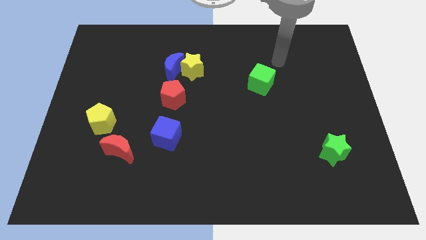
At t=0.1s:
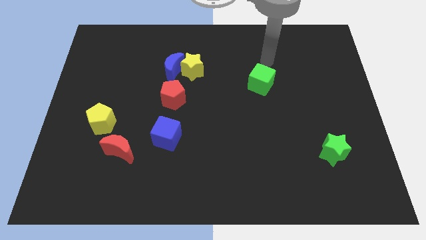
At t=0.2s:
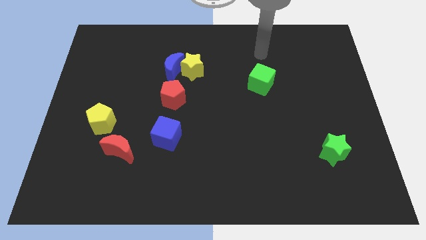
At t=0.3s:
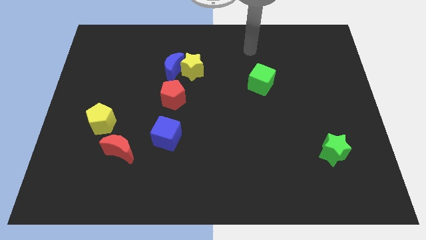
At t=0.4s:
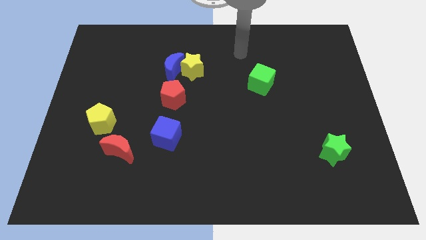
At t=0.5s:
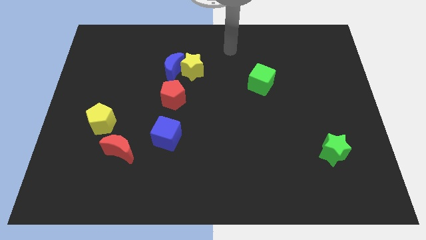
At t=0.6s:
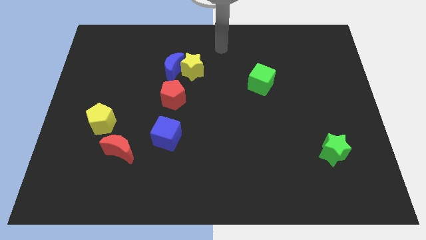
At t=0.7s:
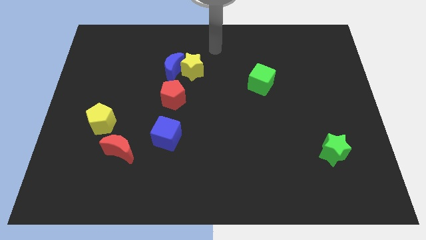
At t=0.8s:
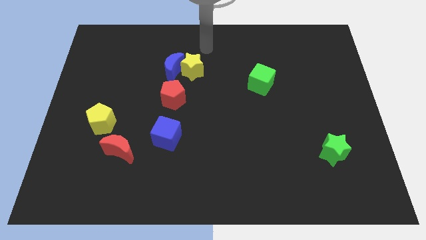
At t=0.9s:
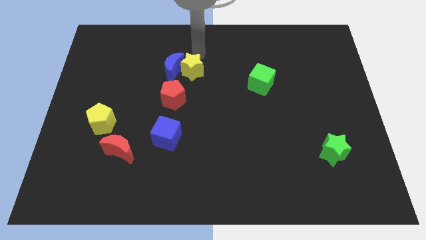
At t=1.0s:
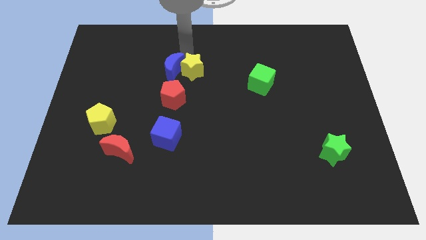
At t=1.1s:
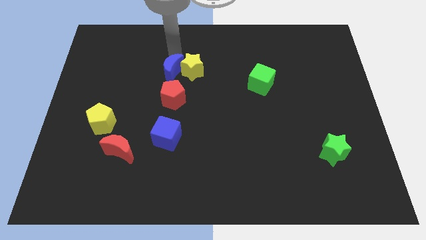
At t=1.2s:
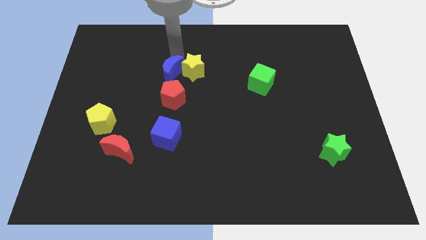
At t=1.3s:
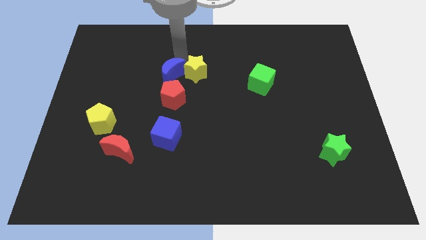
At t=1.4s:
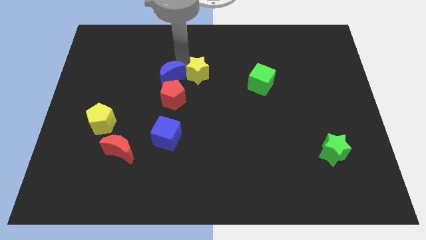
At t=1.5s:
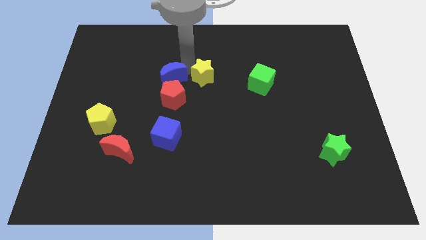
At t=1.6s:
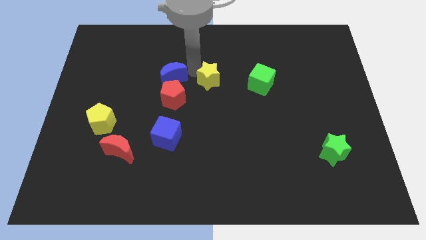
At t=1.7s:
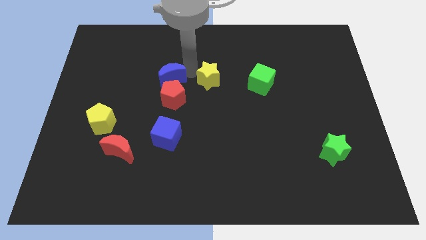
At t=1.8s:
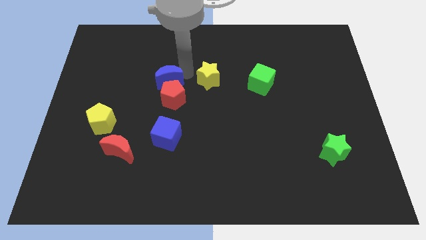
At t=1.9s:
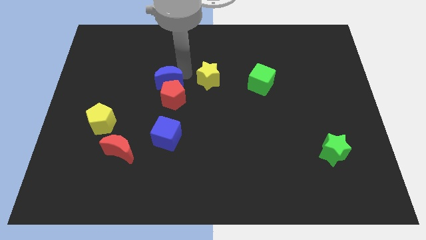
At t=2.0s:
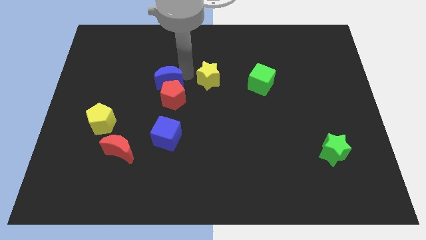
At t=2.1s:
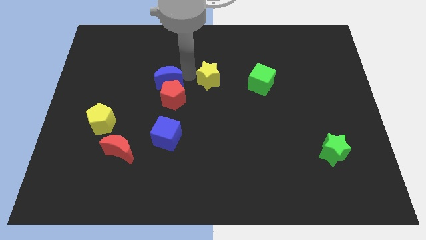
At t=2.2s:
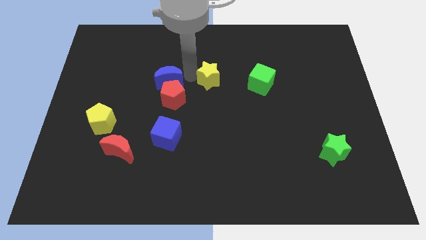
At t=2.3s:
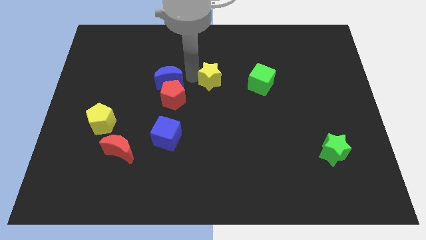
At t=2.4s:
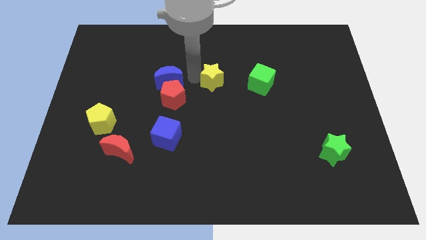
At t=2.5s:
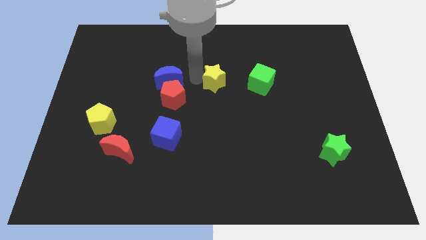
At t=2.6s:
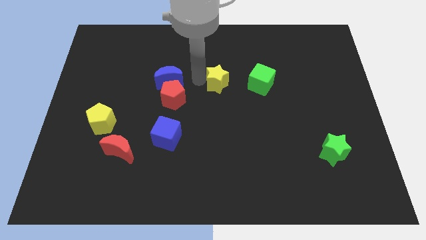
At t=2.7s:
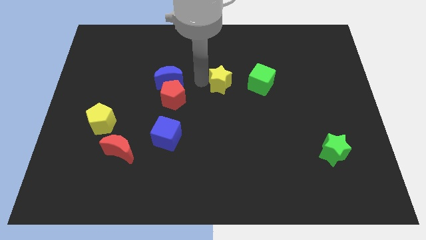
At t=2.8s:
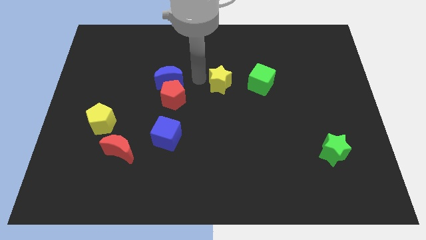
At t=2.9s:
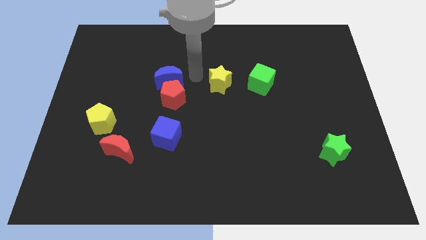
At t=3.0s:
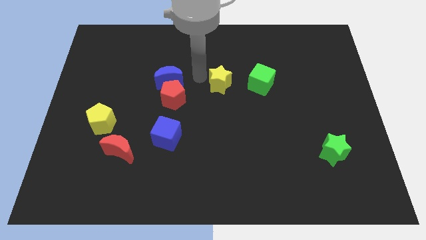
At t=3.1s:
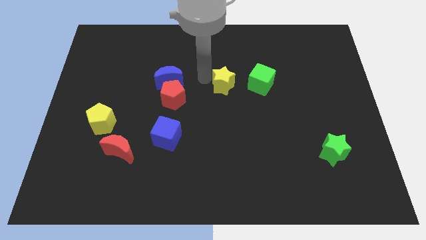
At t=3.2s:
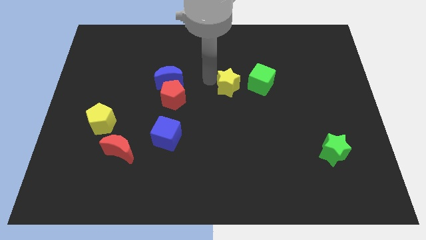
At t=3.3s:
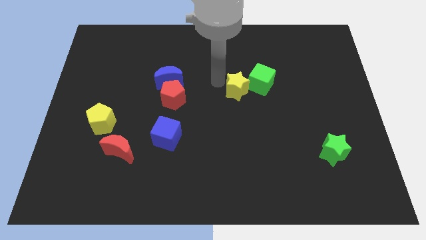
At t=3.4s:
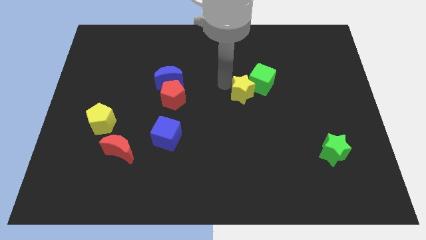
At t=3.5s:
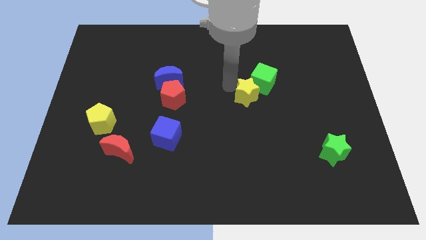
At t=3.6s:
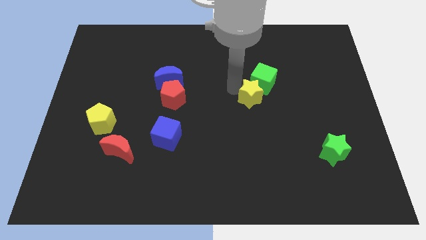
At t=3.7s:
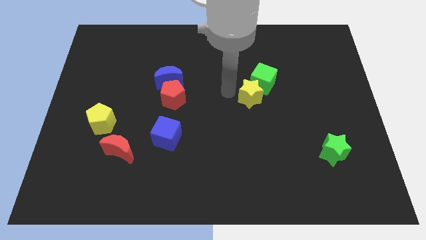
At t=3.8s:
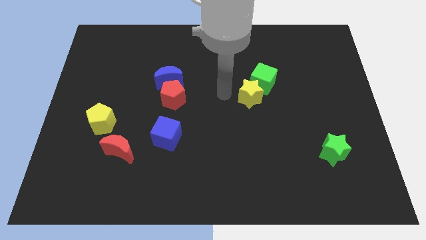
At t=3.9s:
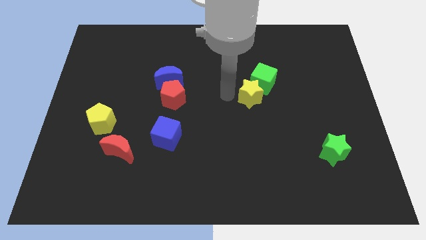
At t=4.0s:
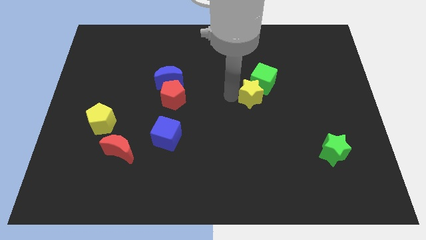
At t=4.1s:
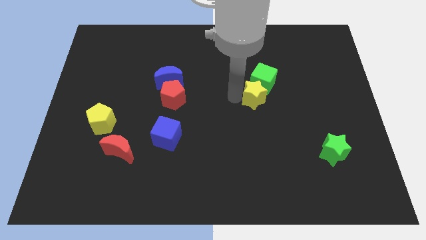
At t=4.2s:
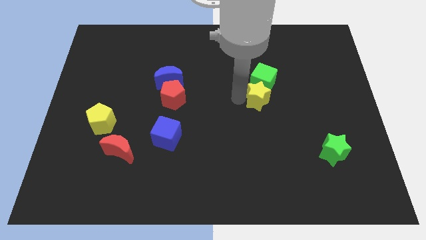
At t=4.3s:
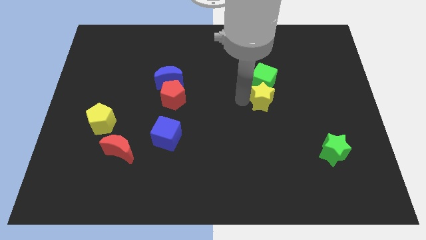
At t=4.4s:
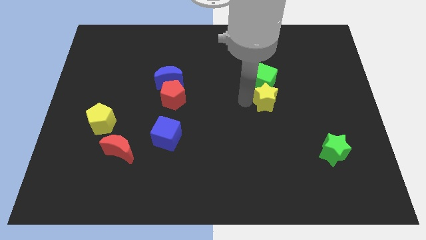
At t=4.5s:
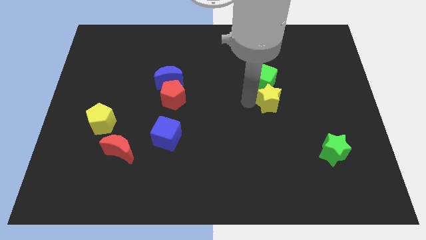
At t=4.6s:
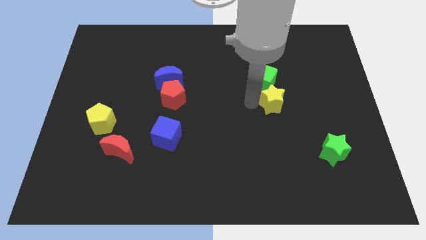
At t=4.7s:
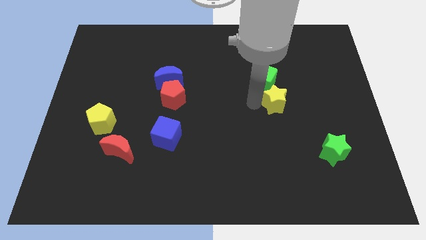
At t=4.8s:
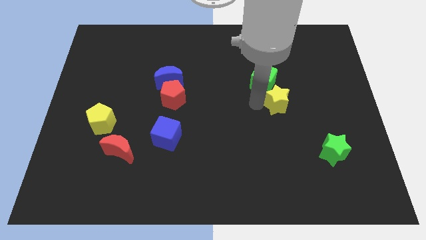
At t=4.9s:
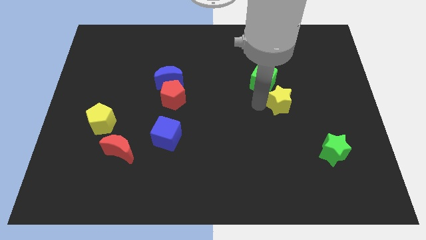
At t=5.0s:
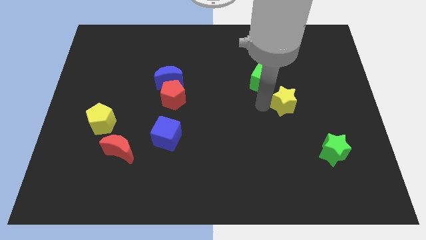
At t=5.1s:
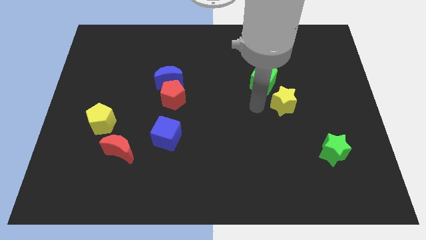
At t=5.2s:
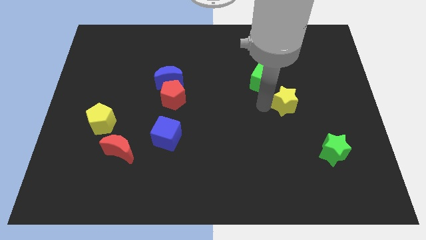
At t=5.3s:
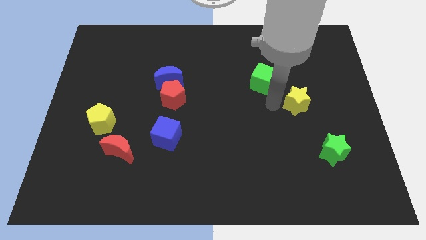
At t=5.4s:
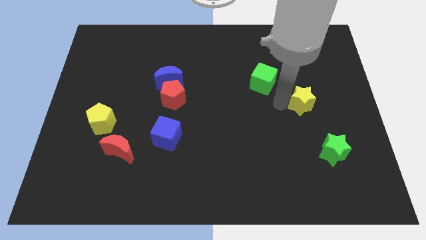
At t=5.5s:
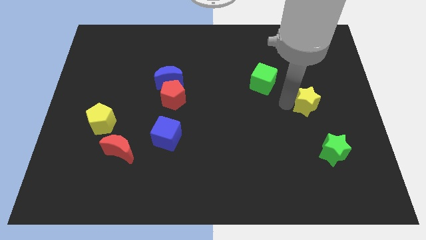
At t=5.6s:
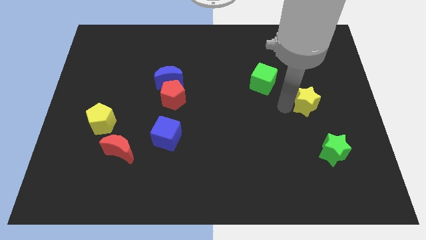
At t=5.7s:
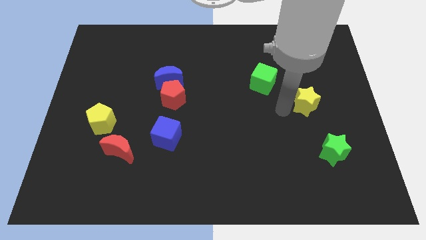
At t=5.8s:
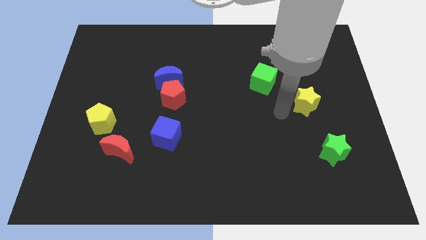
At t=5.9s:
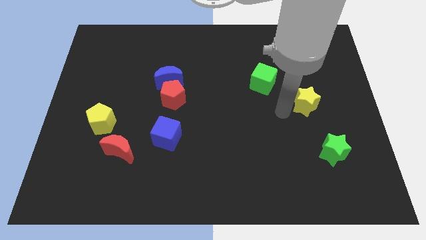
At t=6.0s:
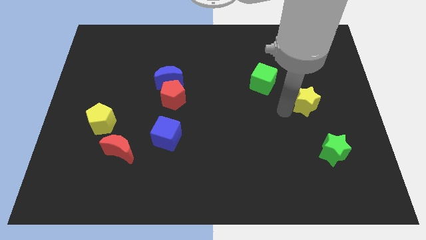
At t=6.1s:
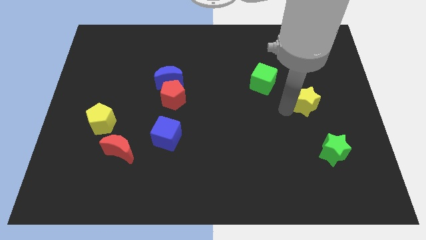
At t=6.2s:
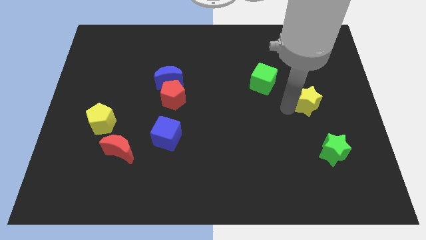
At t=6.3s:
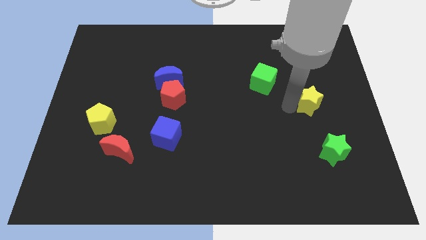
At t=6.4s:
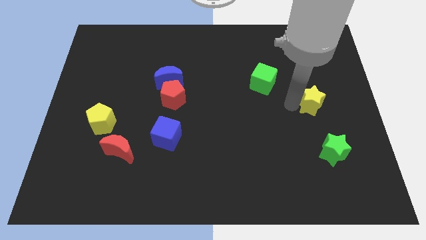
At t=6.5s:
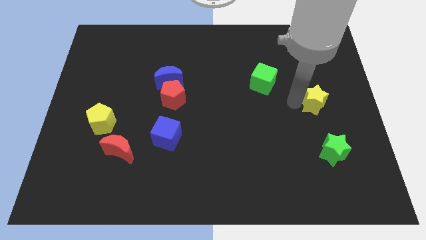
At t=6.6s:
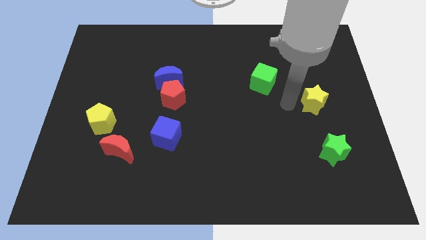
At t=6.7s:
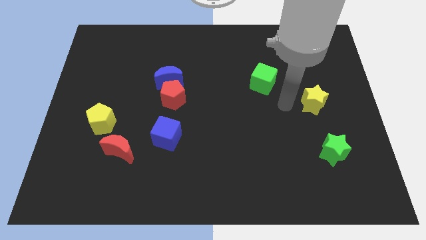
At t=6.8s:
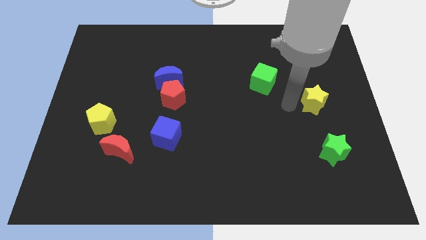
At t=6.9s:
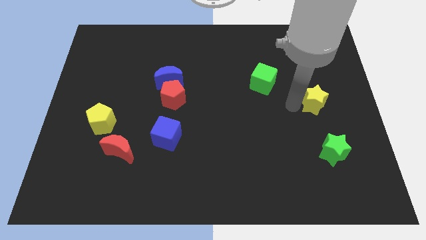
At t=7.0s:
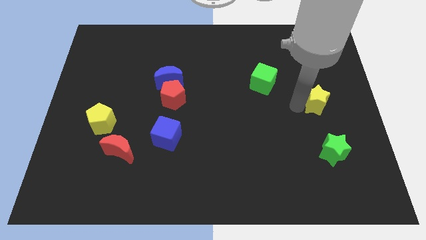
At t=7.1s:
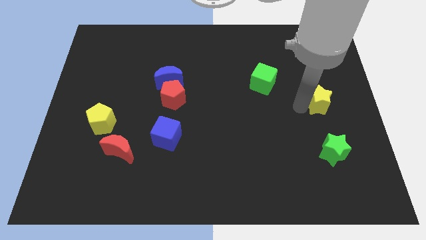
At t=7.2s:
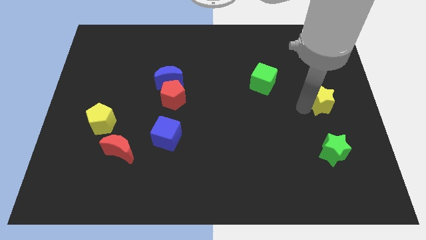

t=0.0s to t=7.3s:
move the yellow star to the right side
